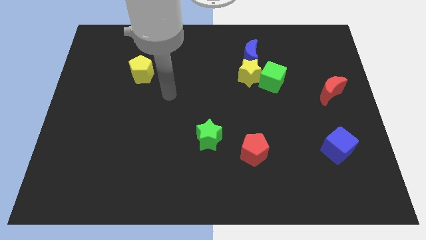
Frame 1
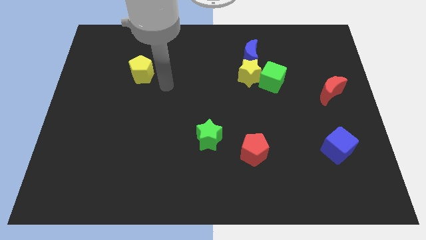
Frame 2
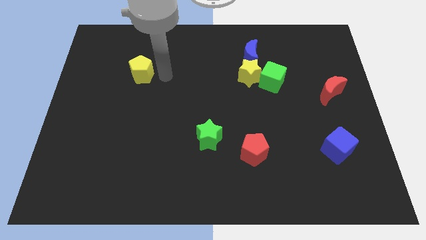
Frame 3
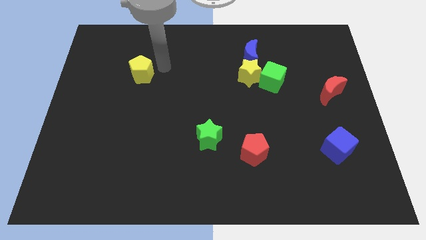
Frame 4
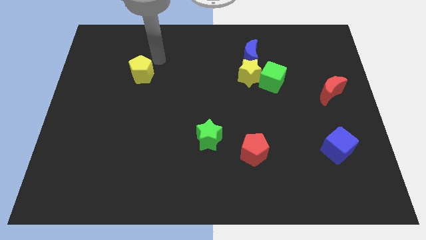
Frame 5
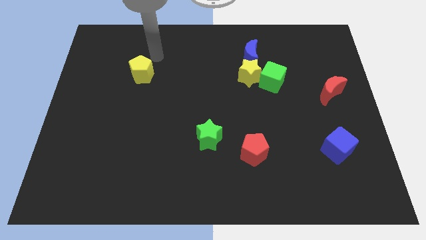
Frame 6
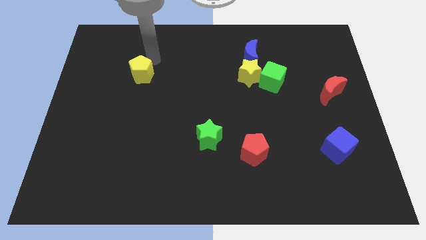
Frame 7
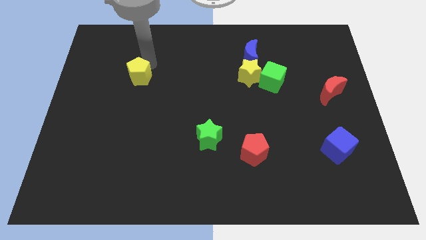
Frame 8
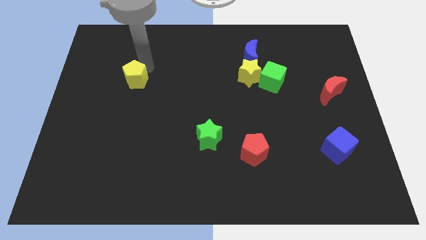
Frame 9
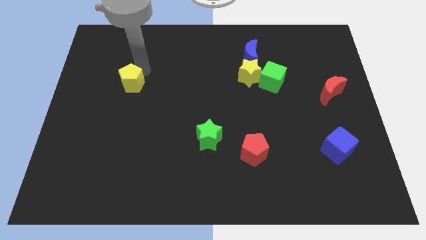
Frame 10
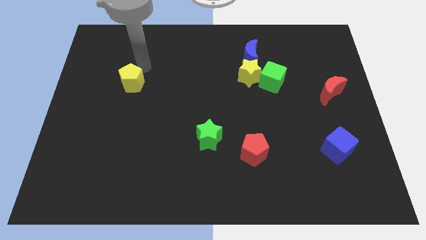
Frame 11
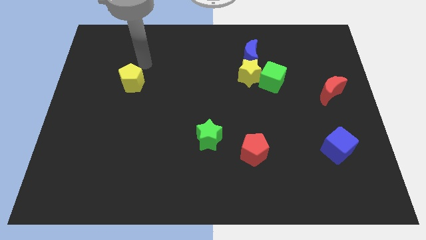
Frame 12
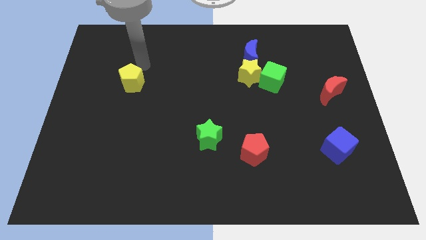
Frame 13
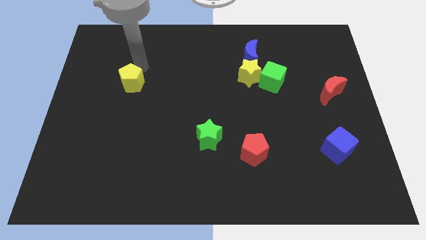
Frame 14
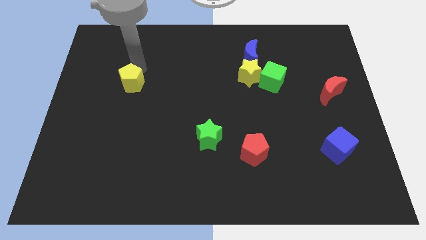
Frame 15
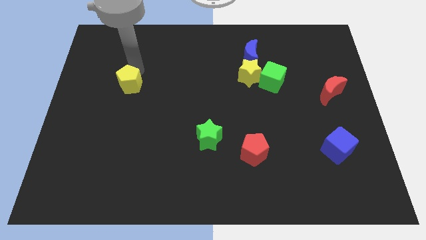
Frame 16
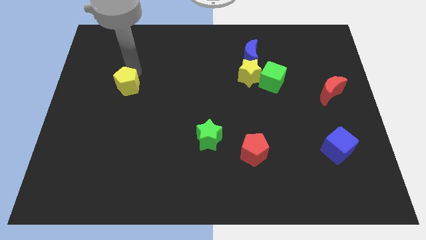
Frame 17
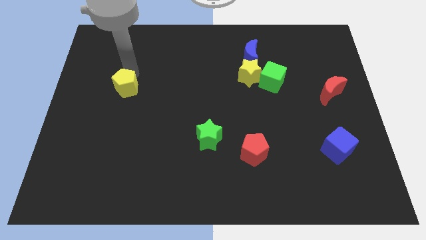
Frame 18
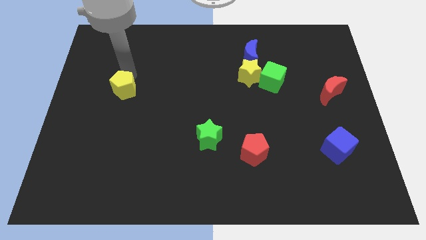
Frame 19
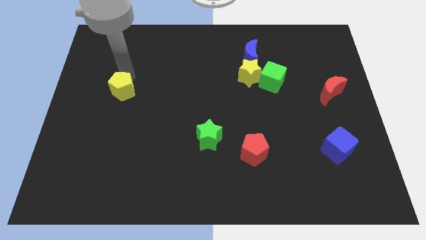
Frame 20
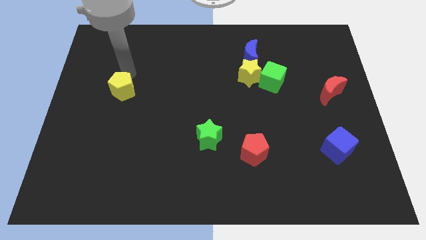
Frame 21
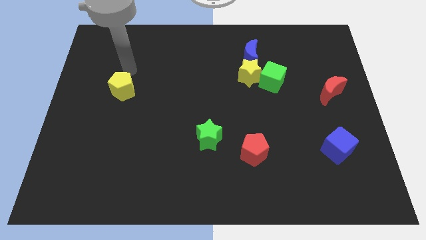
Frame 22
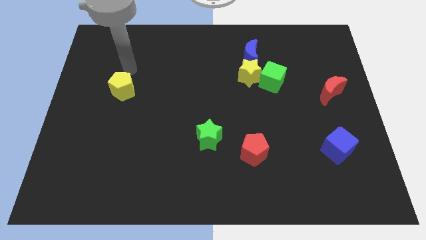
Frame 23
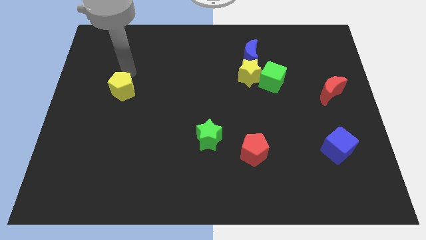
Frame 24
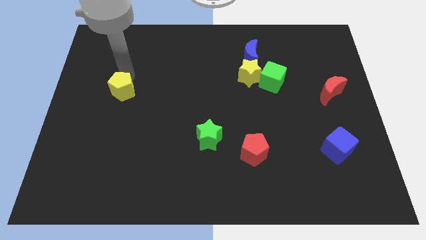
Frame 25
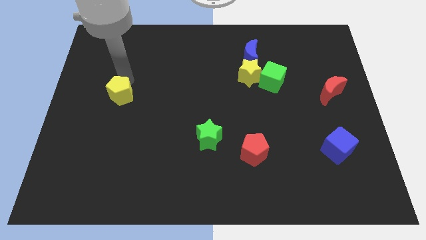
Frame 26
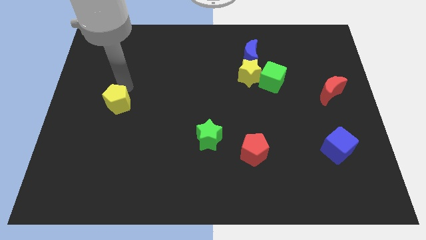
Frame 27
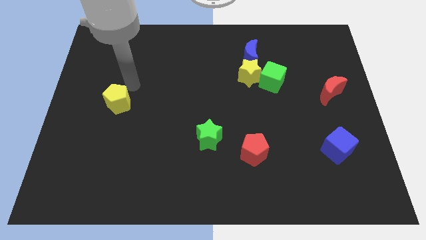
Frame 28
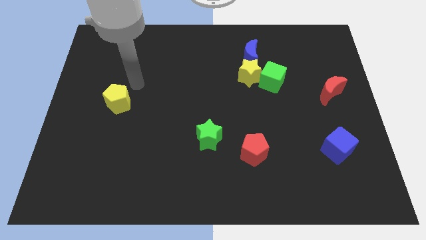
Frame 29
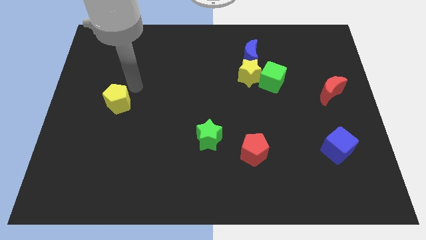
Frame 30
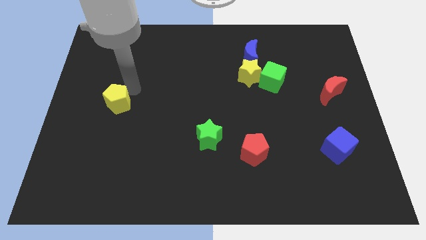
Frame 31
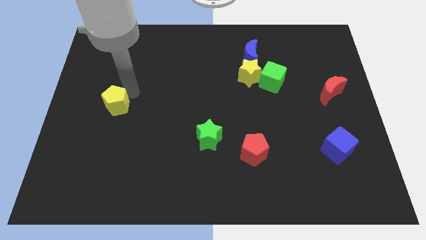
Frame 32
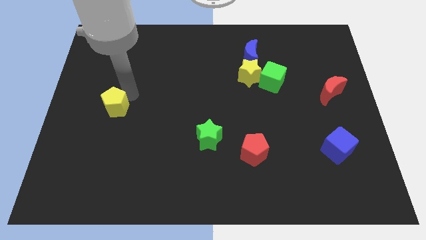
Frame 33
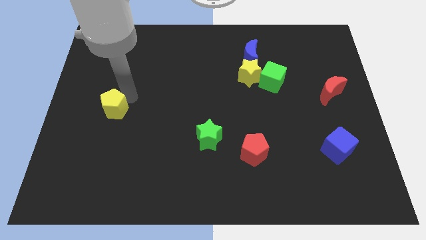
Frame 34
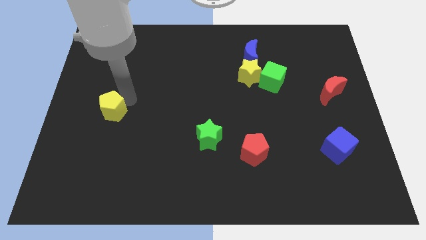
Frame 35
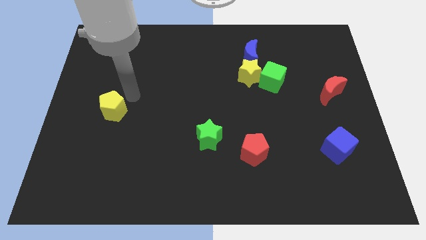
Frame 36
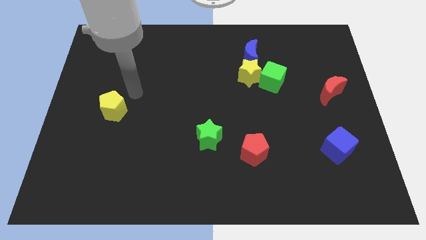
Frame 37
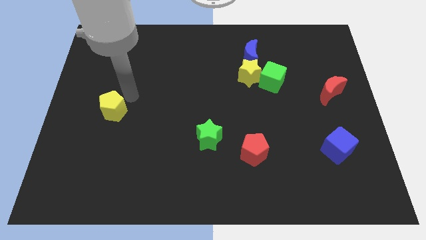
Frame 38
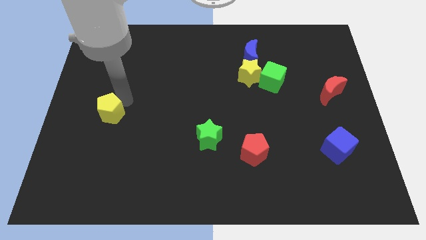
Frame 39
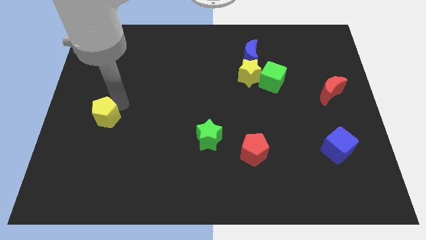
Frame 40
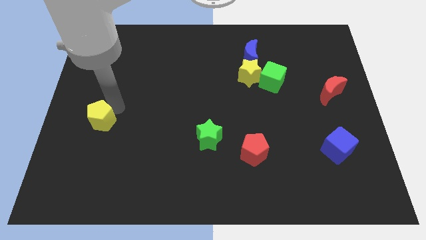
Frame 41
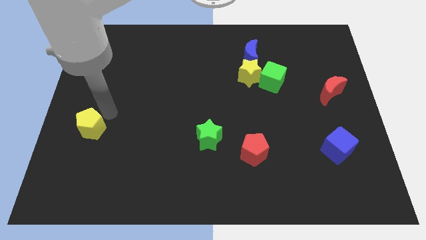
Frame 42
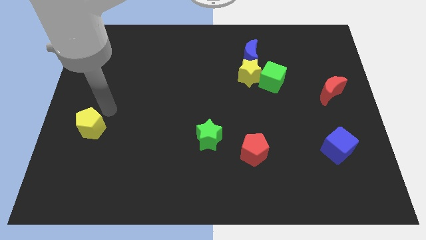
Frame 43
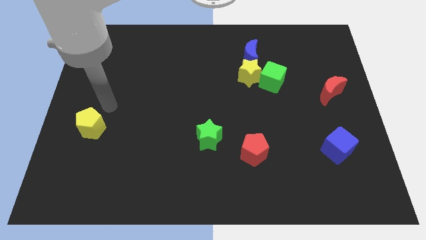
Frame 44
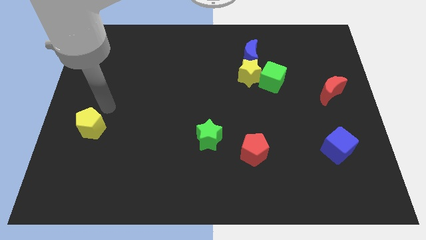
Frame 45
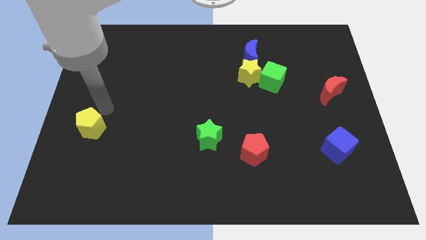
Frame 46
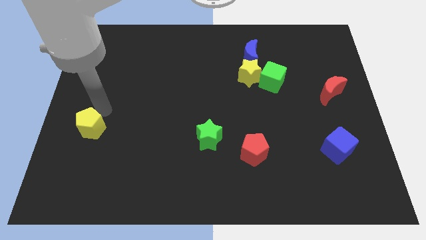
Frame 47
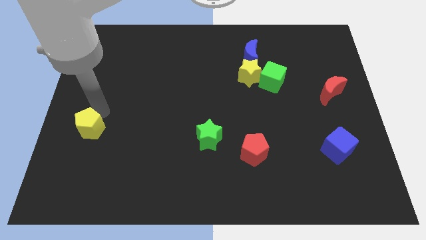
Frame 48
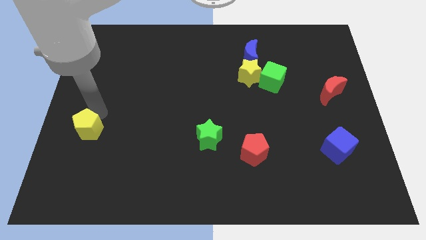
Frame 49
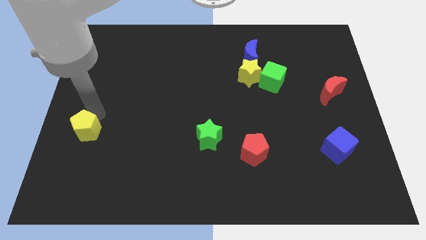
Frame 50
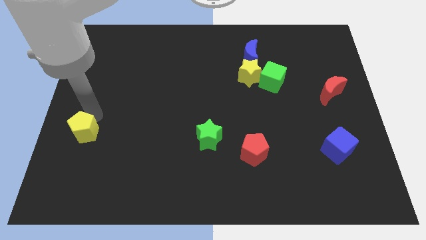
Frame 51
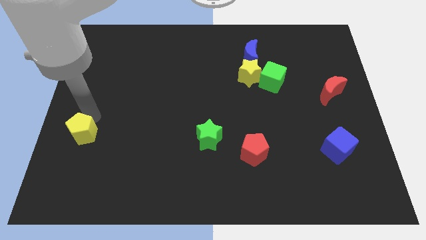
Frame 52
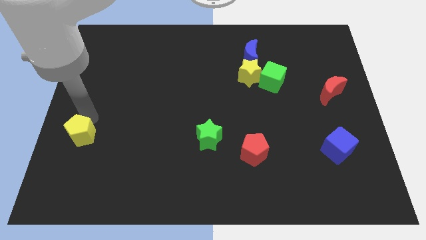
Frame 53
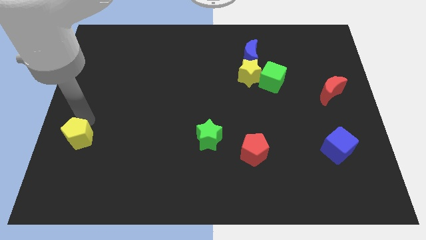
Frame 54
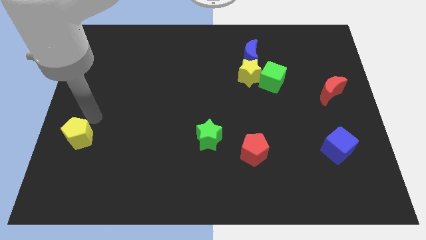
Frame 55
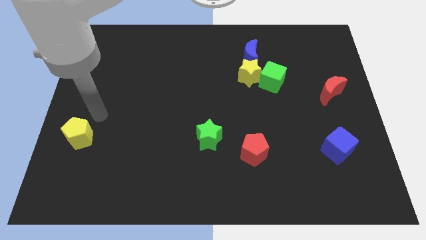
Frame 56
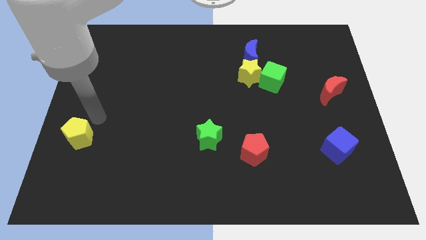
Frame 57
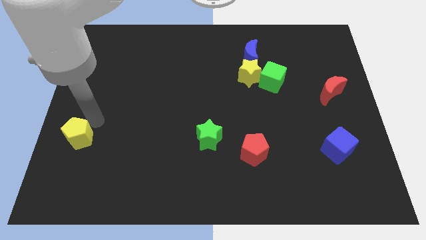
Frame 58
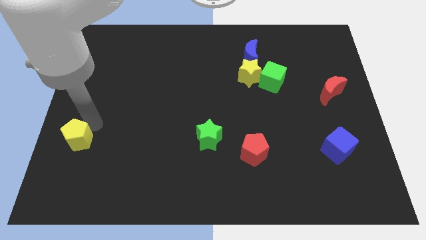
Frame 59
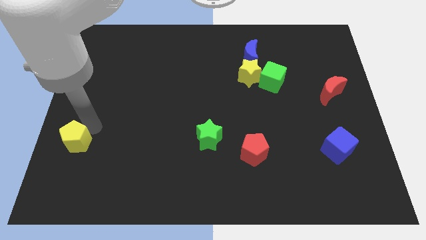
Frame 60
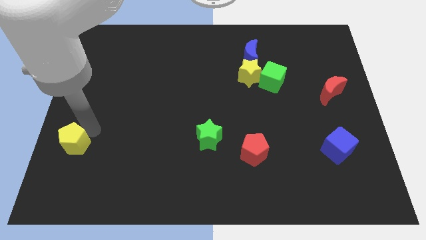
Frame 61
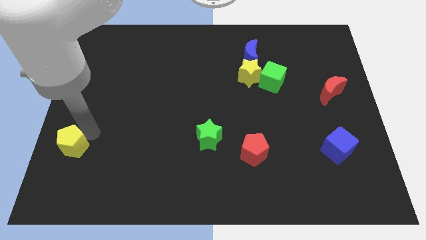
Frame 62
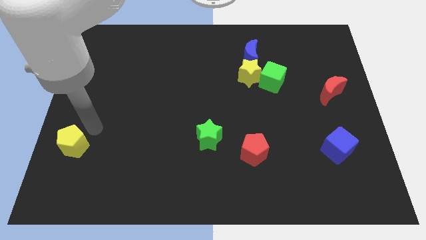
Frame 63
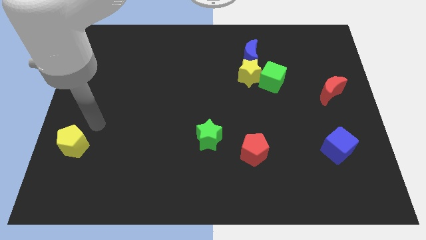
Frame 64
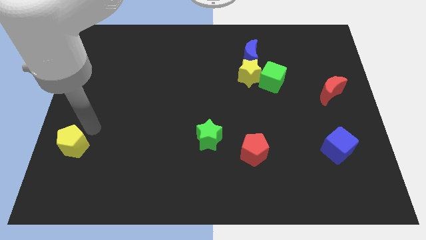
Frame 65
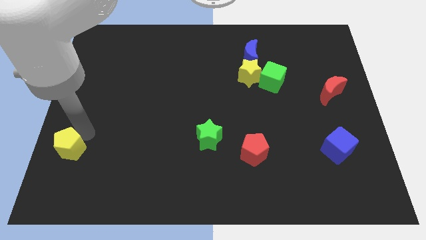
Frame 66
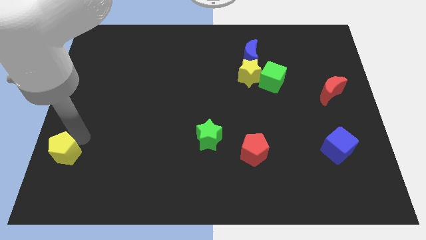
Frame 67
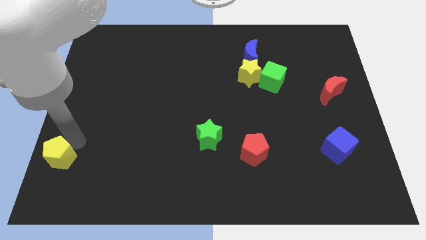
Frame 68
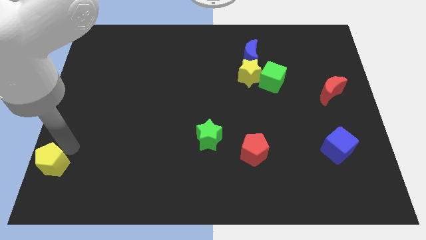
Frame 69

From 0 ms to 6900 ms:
move the yellow pentagon to the bottom left of the board
